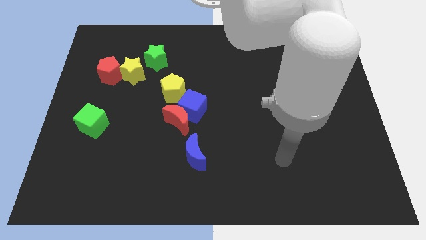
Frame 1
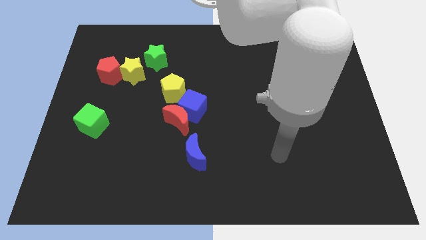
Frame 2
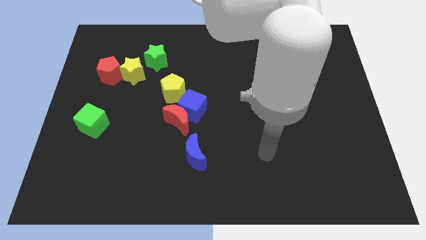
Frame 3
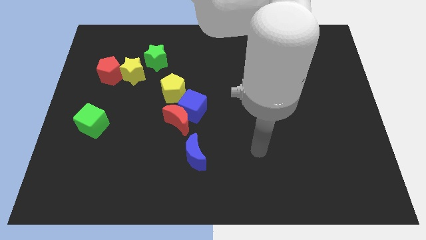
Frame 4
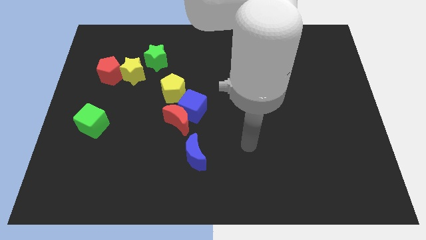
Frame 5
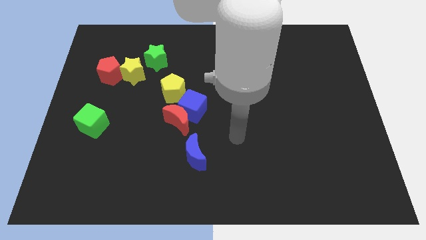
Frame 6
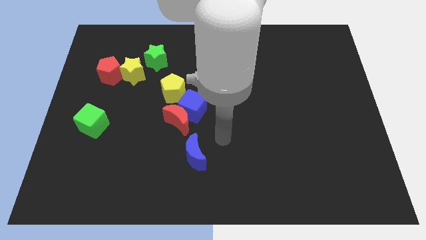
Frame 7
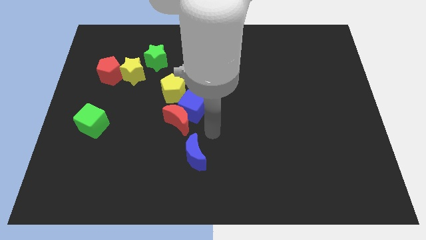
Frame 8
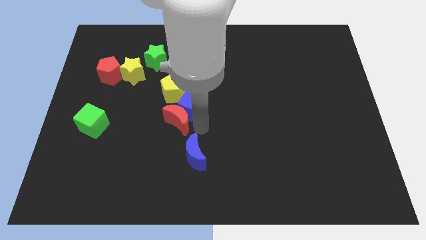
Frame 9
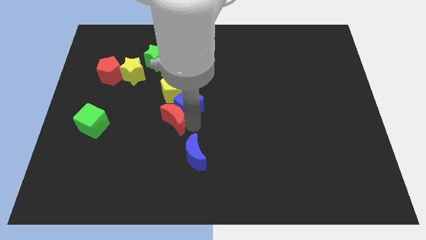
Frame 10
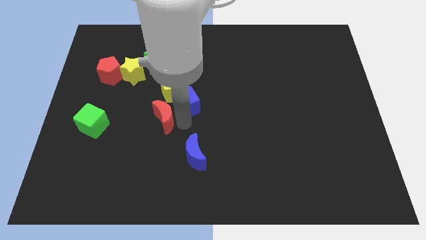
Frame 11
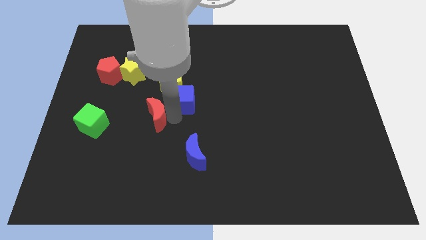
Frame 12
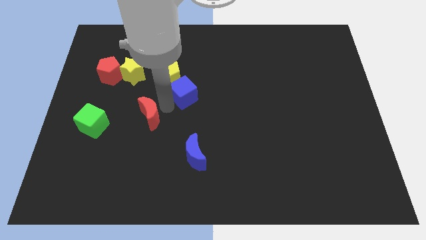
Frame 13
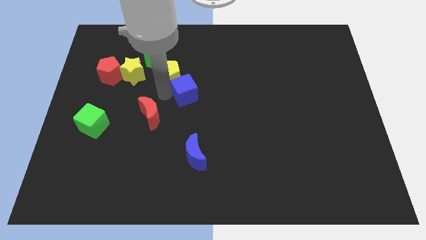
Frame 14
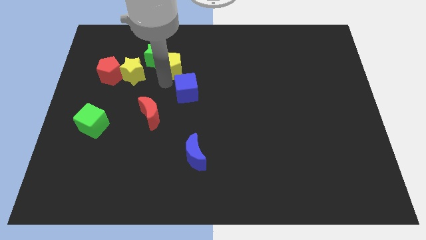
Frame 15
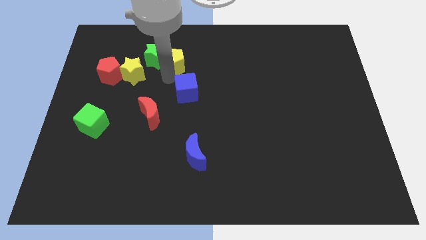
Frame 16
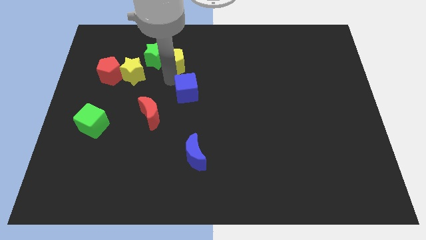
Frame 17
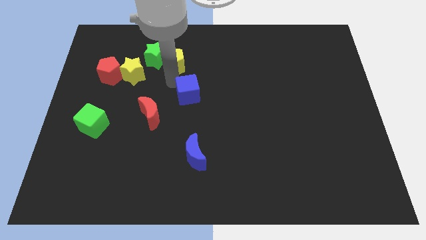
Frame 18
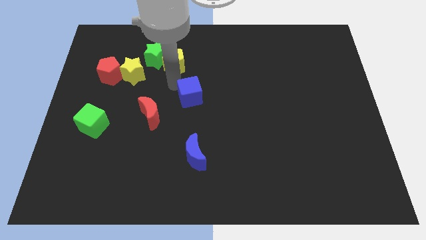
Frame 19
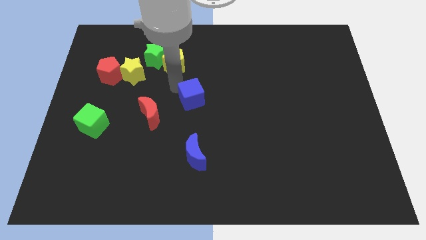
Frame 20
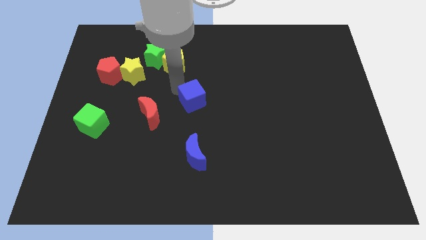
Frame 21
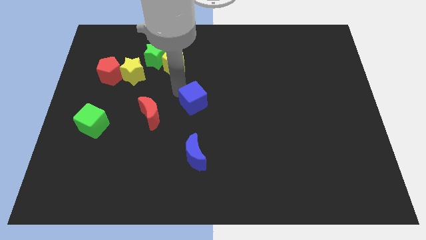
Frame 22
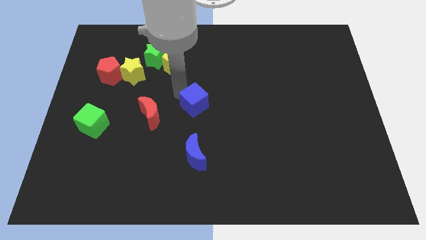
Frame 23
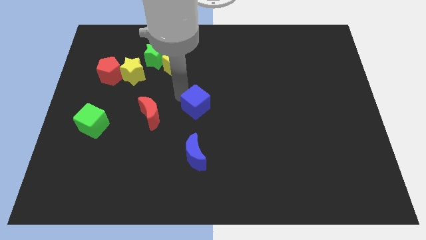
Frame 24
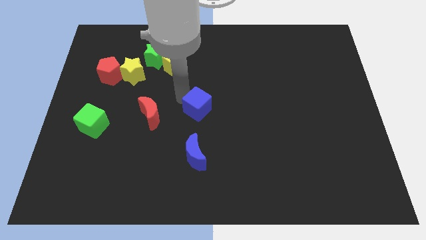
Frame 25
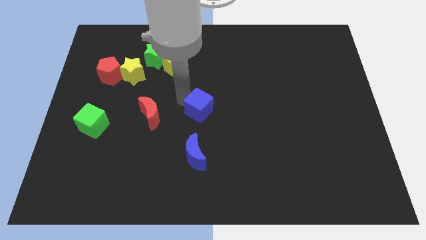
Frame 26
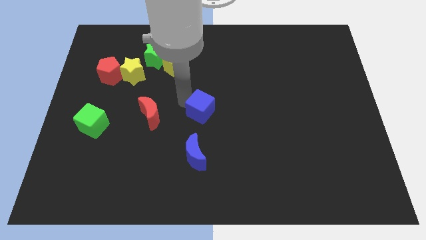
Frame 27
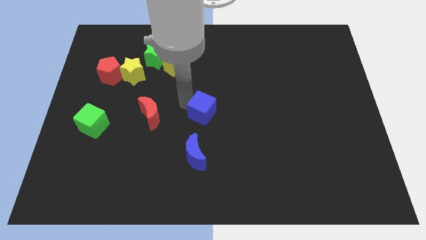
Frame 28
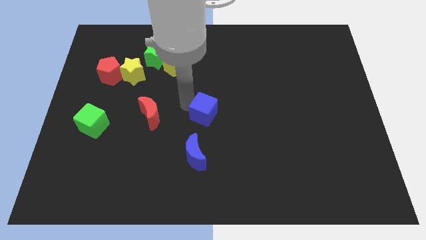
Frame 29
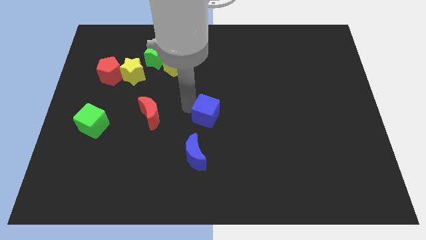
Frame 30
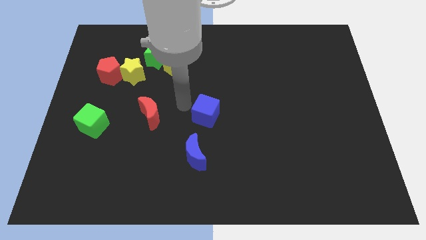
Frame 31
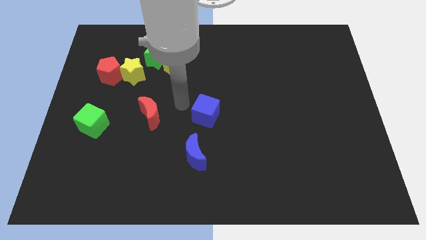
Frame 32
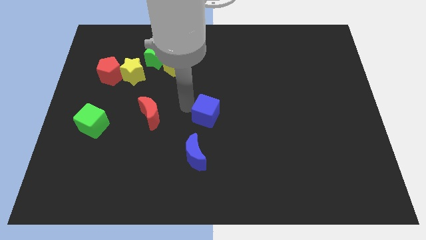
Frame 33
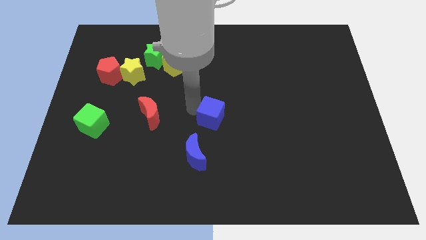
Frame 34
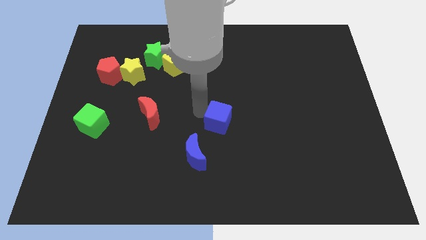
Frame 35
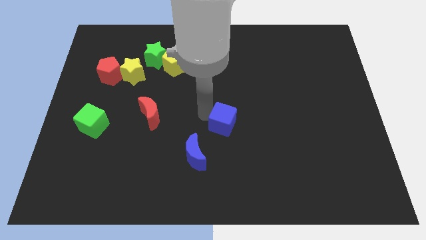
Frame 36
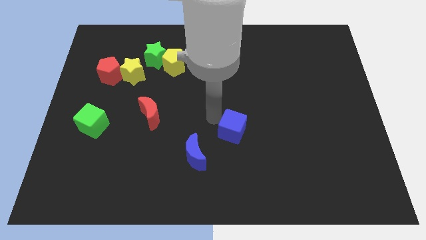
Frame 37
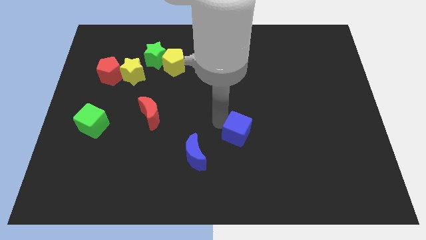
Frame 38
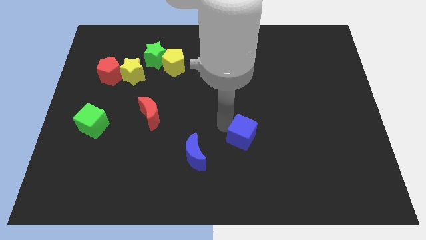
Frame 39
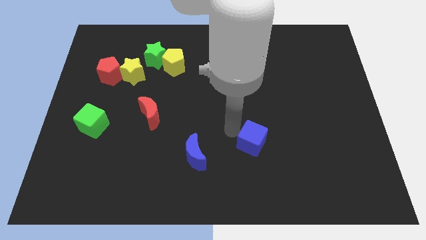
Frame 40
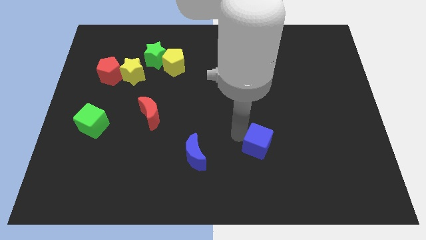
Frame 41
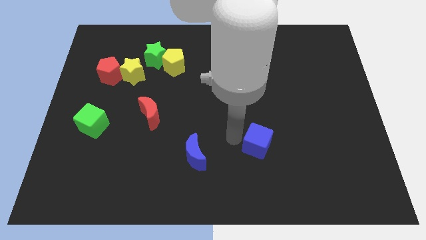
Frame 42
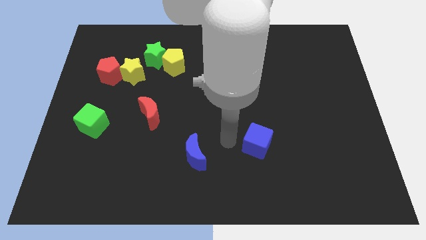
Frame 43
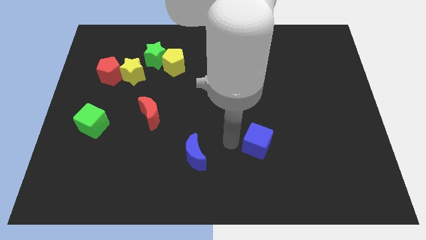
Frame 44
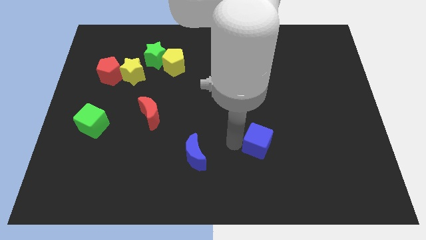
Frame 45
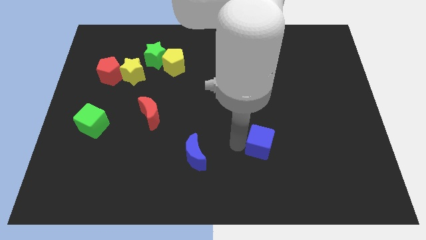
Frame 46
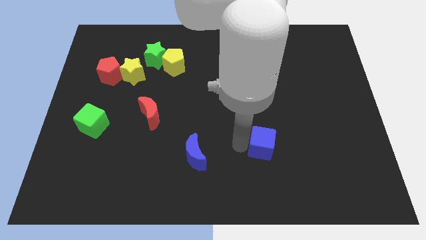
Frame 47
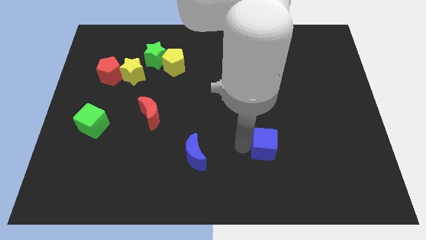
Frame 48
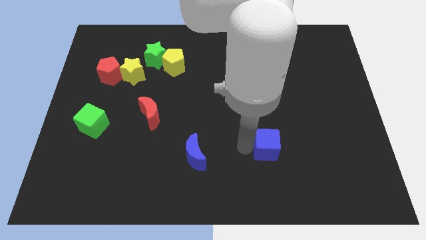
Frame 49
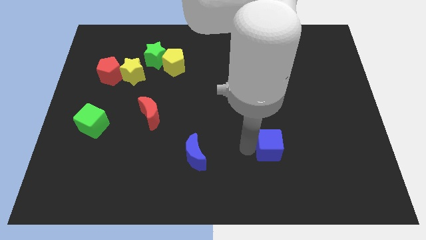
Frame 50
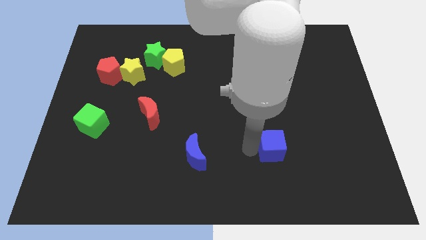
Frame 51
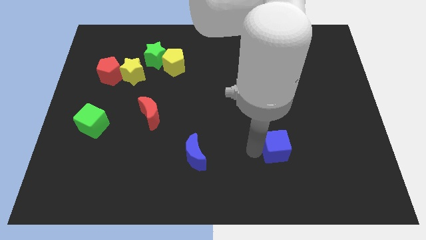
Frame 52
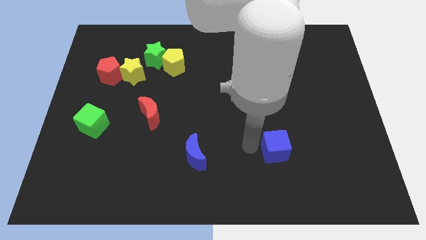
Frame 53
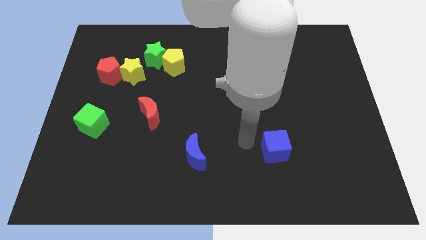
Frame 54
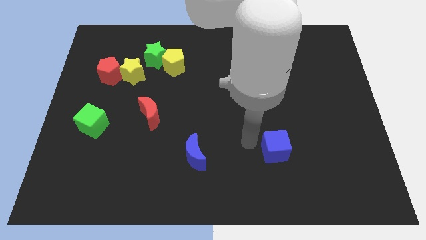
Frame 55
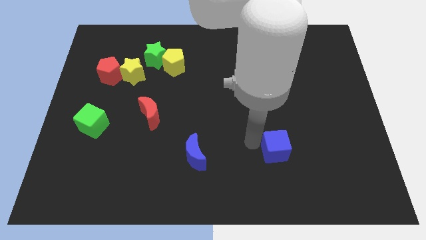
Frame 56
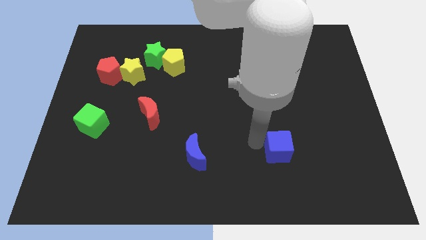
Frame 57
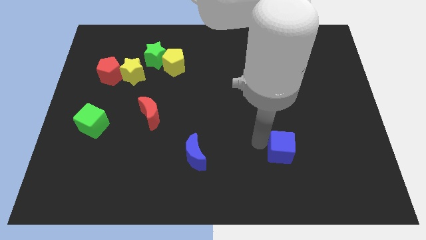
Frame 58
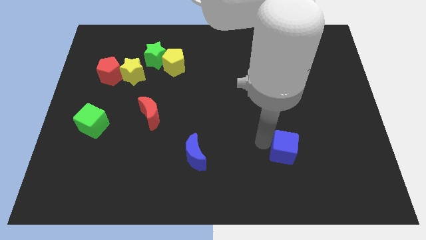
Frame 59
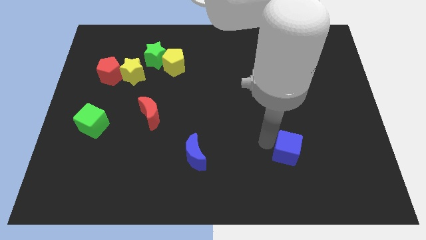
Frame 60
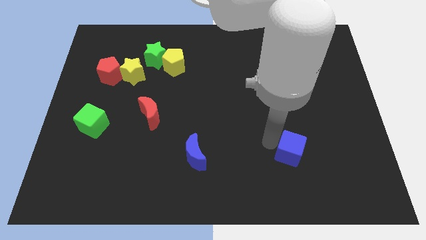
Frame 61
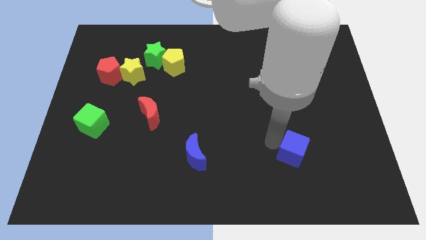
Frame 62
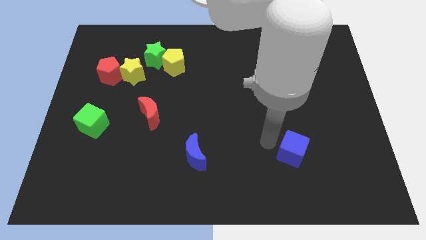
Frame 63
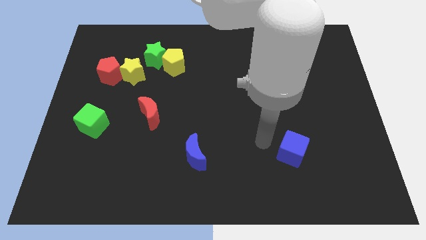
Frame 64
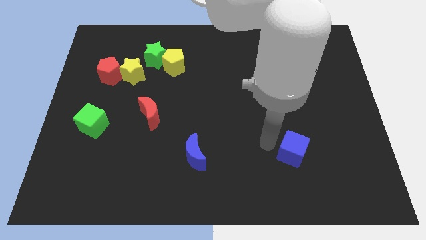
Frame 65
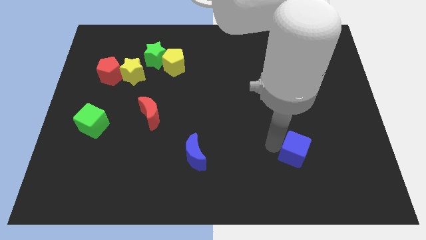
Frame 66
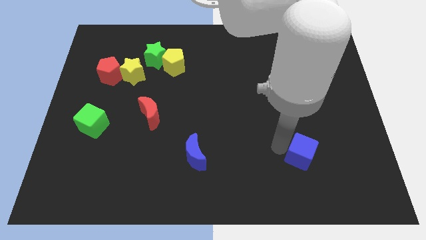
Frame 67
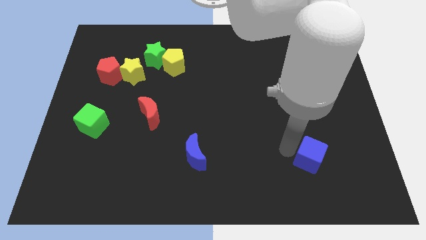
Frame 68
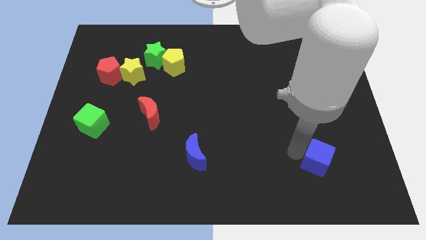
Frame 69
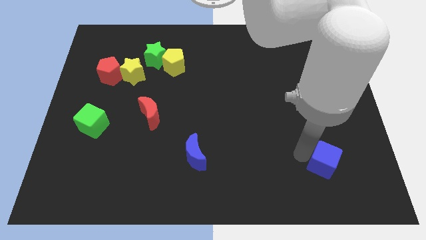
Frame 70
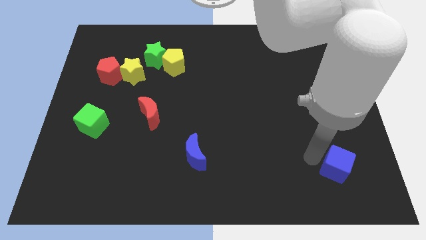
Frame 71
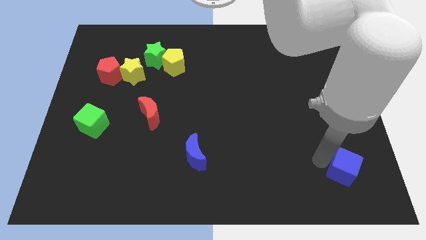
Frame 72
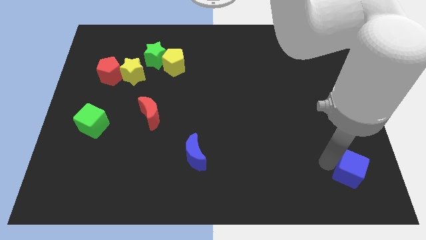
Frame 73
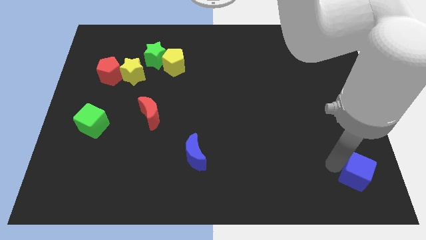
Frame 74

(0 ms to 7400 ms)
move the blue cube to the lower right corner
